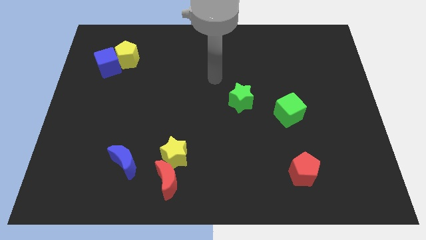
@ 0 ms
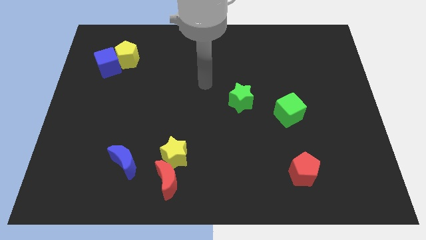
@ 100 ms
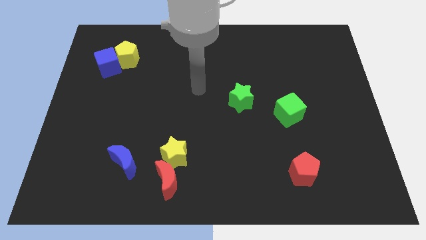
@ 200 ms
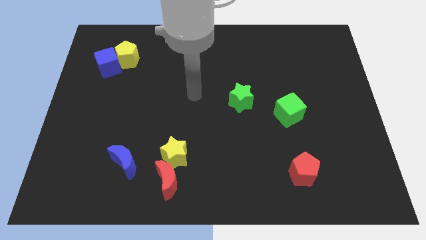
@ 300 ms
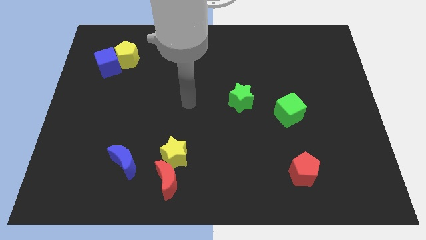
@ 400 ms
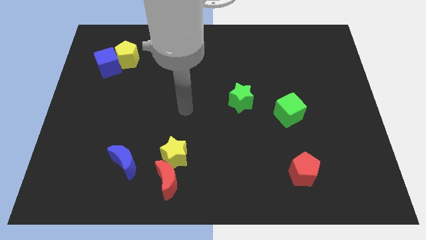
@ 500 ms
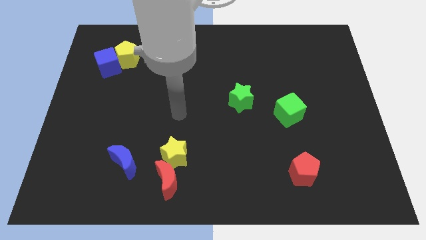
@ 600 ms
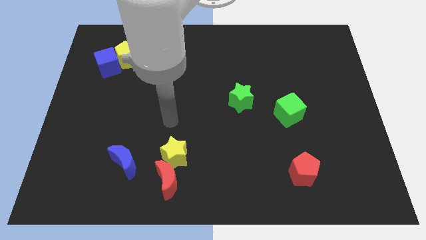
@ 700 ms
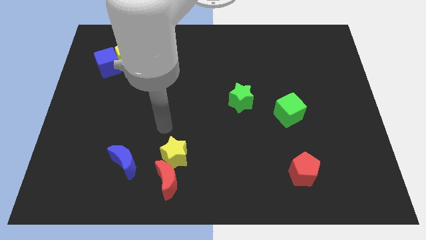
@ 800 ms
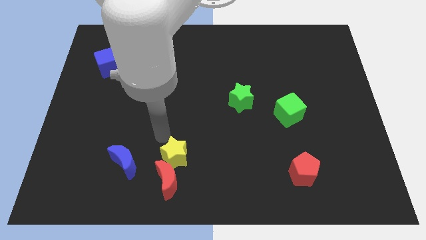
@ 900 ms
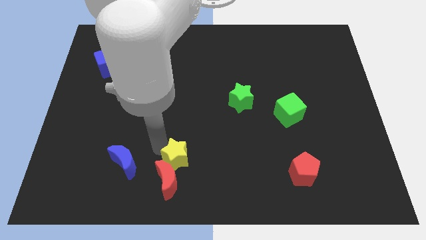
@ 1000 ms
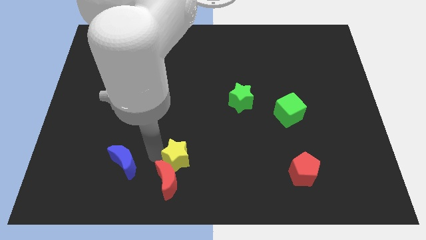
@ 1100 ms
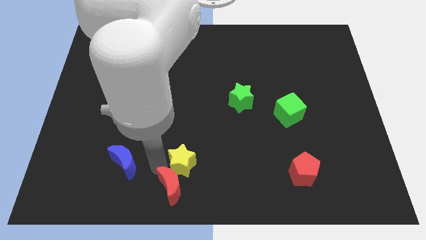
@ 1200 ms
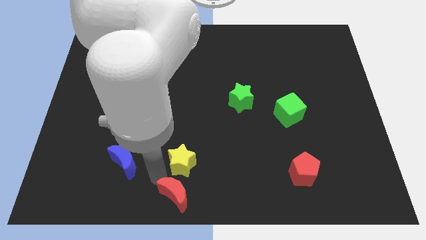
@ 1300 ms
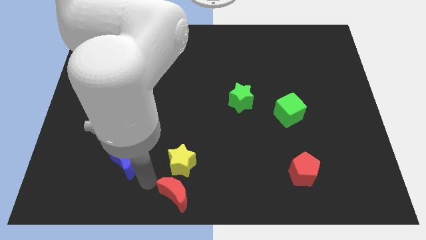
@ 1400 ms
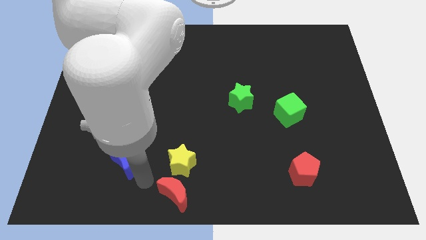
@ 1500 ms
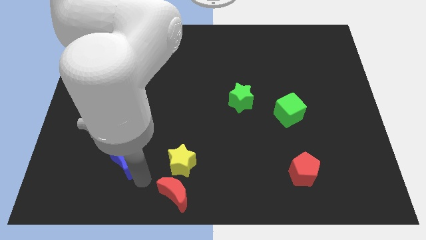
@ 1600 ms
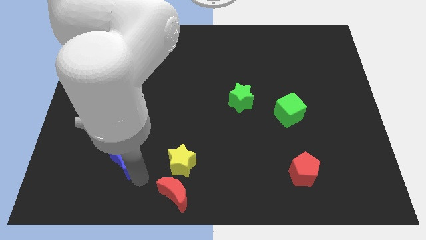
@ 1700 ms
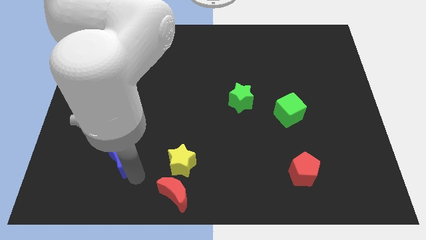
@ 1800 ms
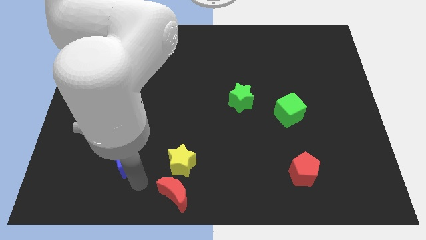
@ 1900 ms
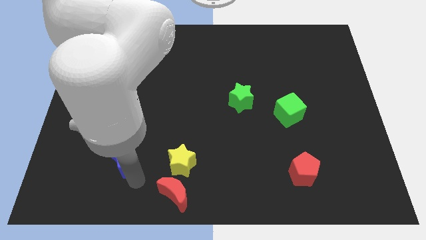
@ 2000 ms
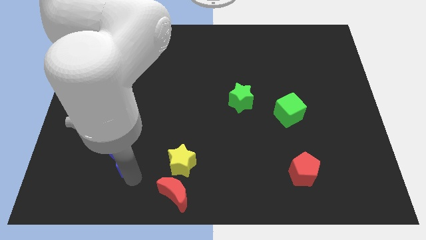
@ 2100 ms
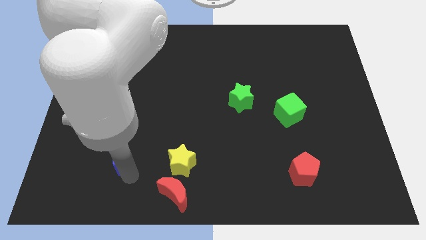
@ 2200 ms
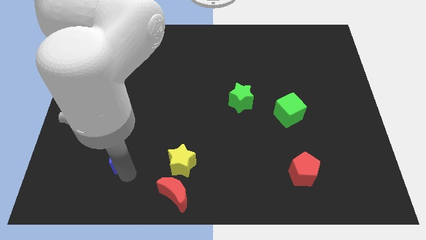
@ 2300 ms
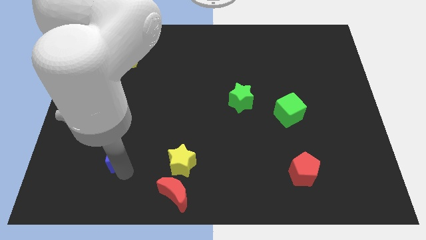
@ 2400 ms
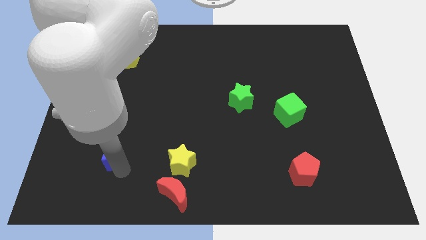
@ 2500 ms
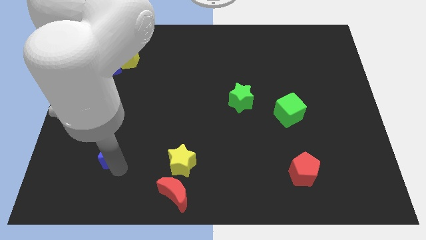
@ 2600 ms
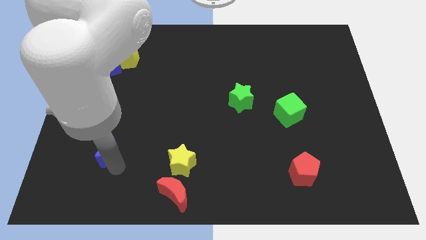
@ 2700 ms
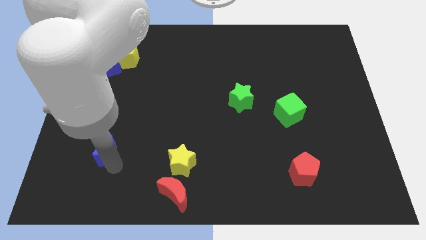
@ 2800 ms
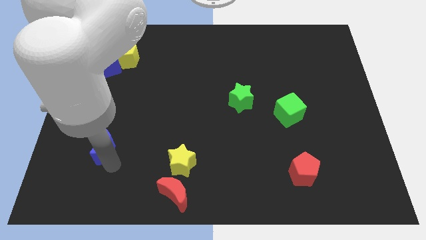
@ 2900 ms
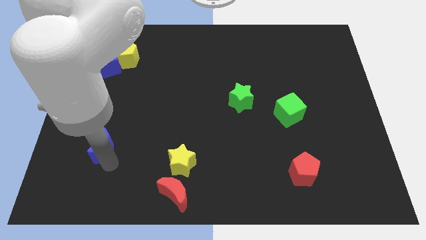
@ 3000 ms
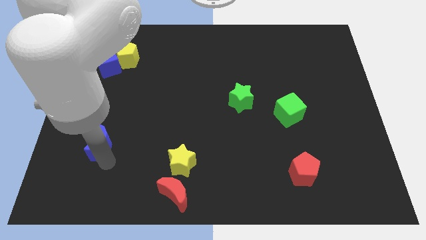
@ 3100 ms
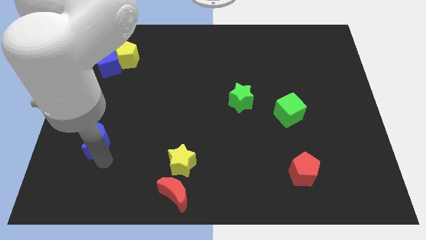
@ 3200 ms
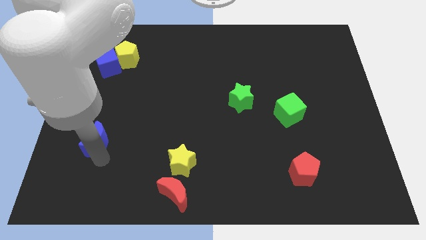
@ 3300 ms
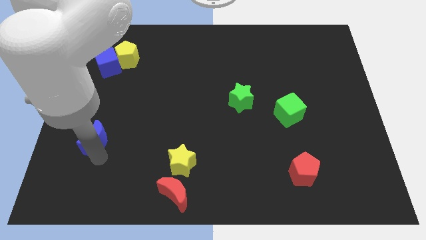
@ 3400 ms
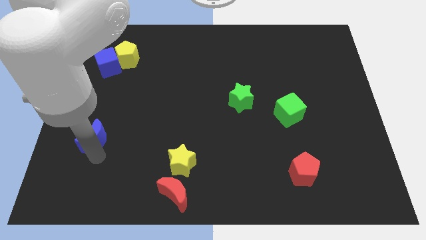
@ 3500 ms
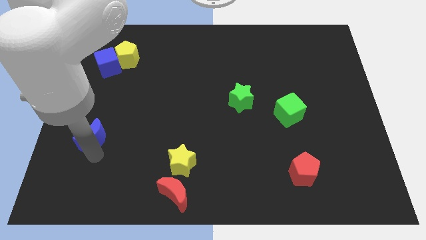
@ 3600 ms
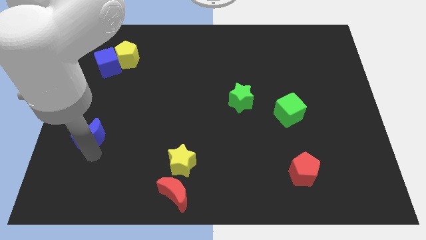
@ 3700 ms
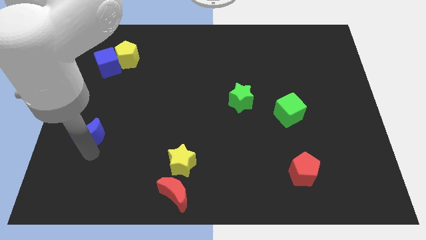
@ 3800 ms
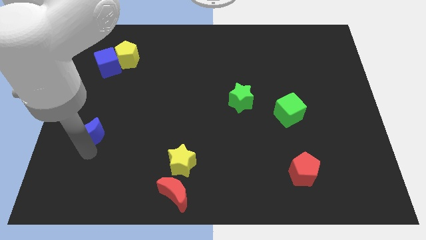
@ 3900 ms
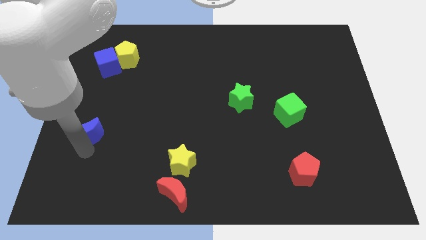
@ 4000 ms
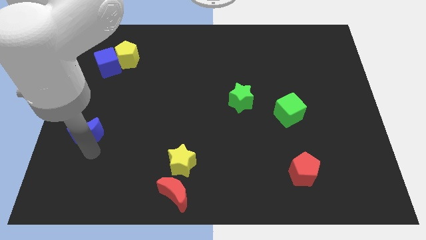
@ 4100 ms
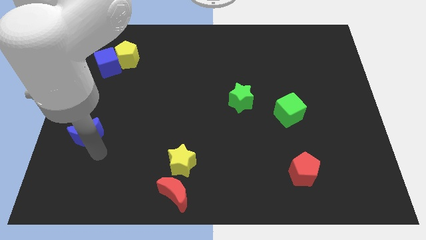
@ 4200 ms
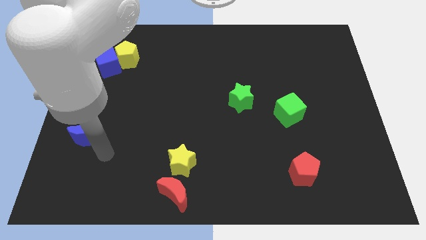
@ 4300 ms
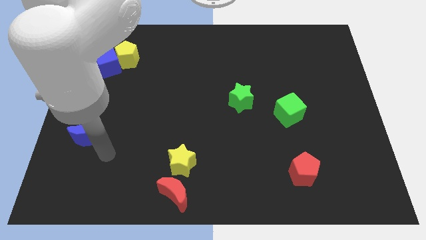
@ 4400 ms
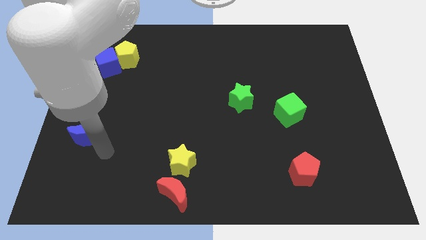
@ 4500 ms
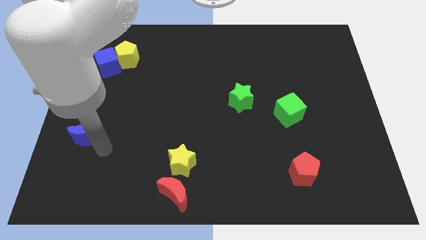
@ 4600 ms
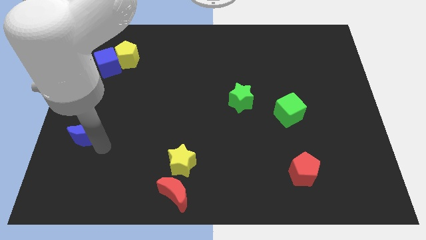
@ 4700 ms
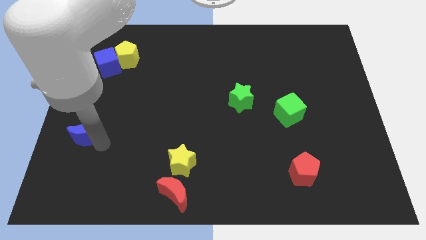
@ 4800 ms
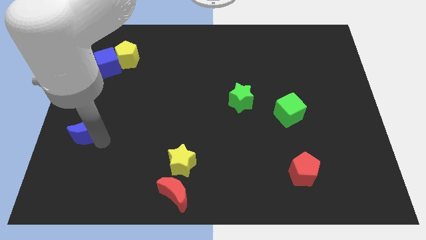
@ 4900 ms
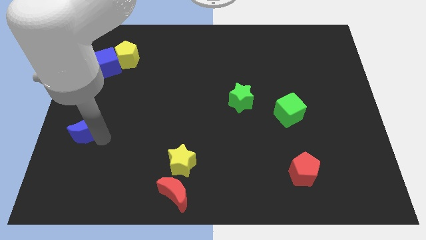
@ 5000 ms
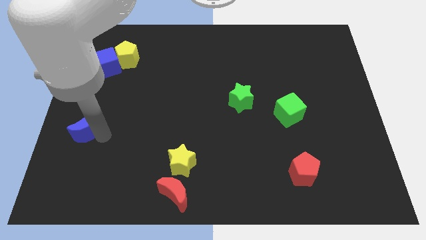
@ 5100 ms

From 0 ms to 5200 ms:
put the blue moon to the center left
